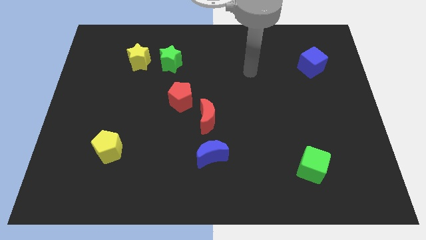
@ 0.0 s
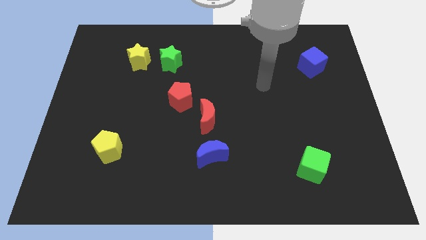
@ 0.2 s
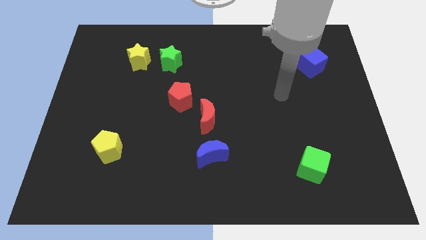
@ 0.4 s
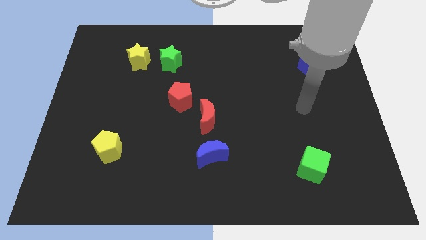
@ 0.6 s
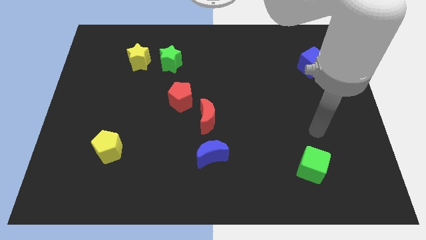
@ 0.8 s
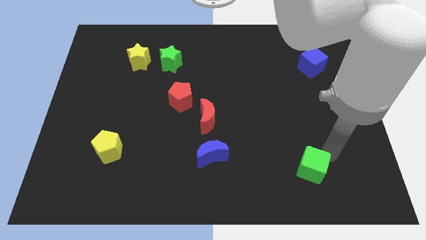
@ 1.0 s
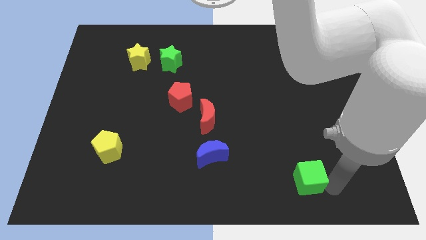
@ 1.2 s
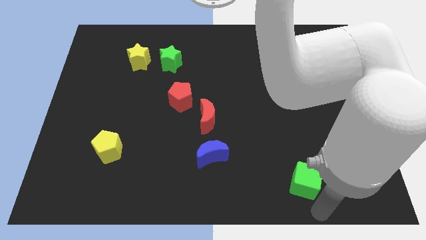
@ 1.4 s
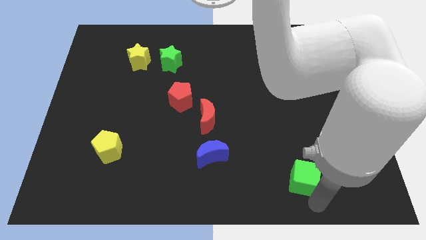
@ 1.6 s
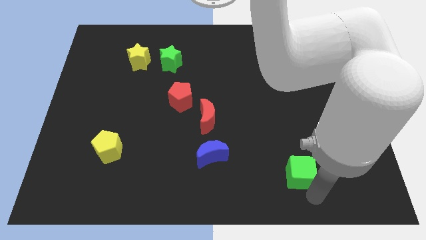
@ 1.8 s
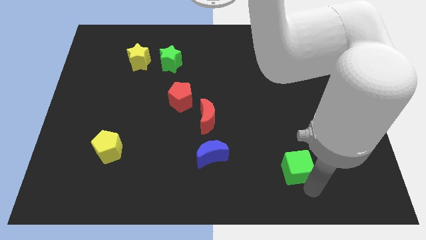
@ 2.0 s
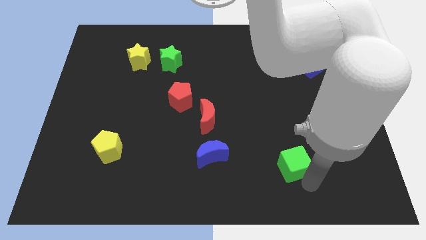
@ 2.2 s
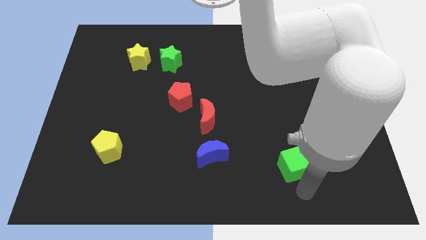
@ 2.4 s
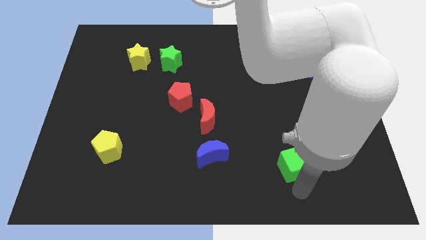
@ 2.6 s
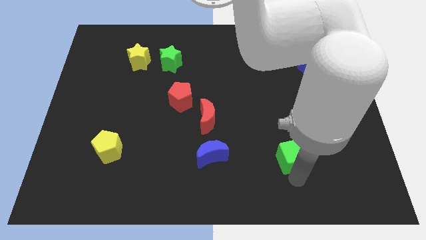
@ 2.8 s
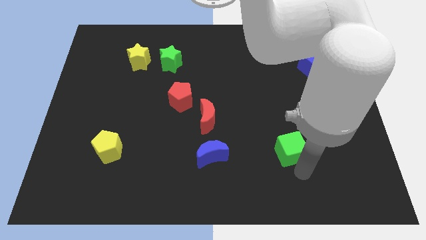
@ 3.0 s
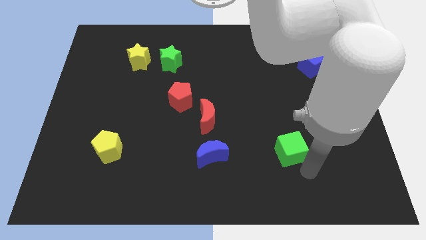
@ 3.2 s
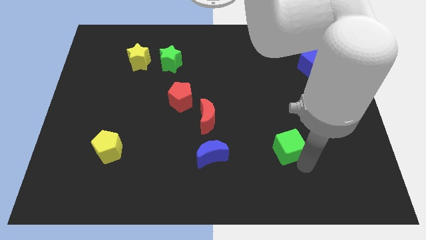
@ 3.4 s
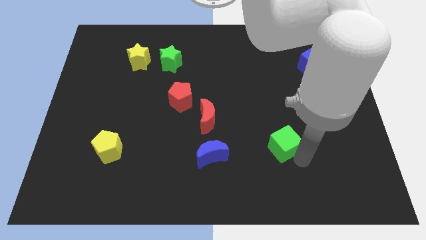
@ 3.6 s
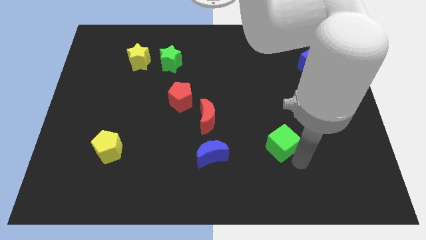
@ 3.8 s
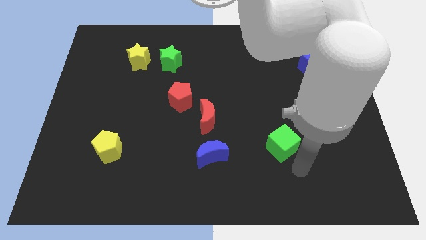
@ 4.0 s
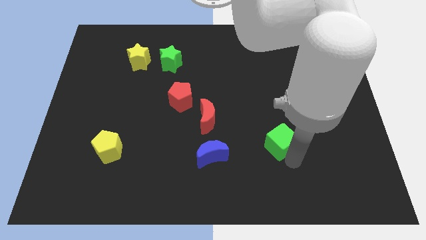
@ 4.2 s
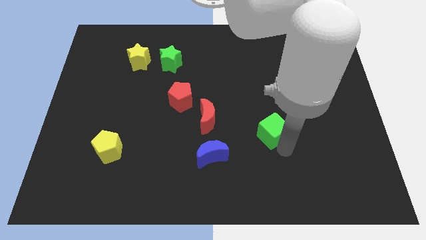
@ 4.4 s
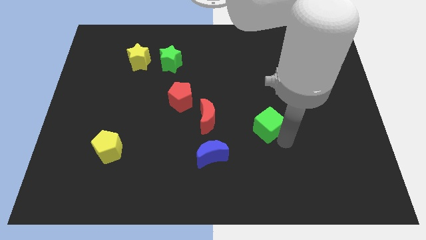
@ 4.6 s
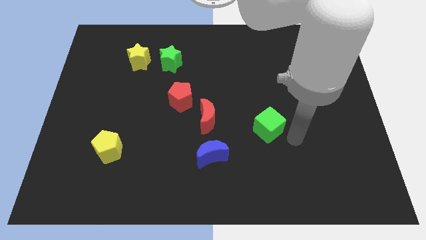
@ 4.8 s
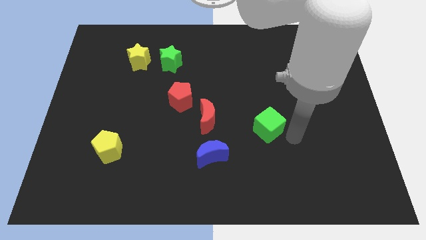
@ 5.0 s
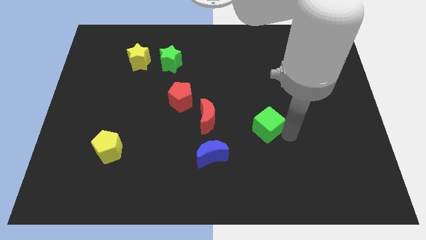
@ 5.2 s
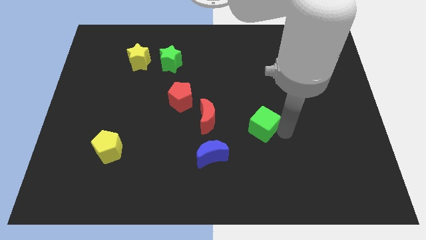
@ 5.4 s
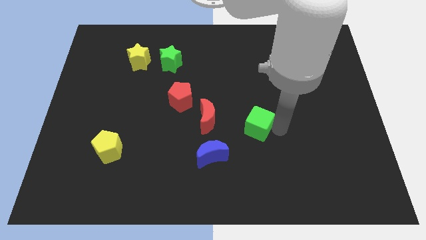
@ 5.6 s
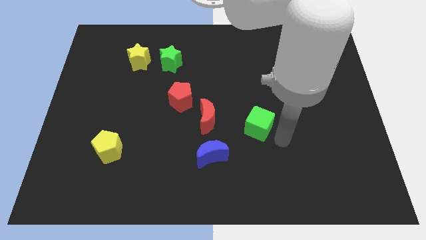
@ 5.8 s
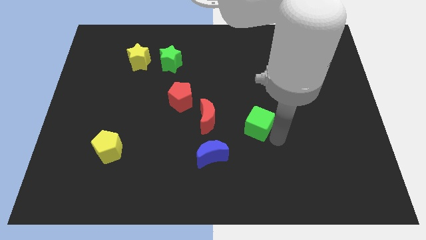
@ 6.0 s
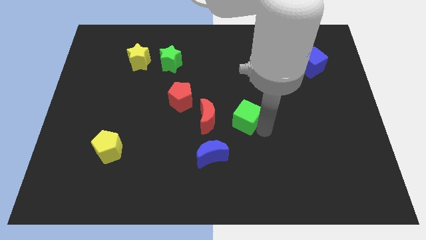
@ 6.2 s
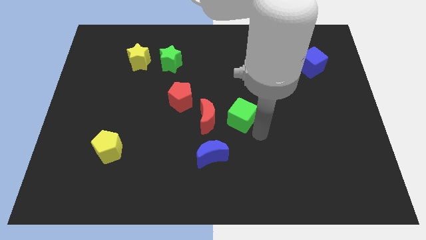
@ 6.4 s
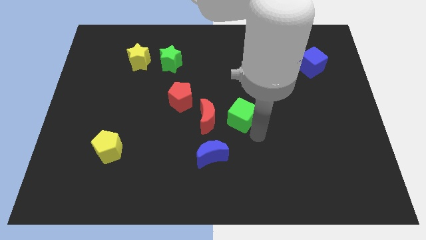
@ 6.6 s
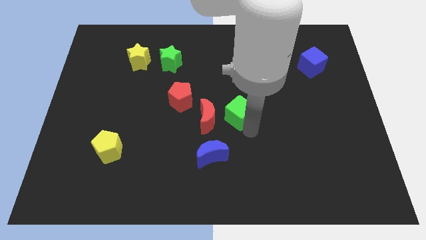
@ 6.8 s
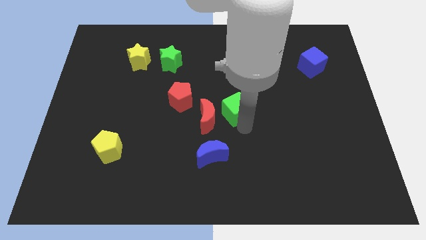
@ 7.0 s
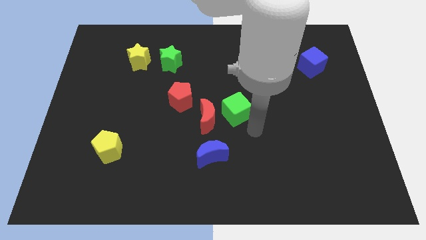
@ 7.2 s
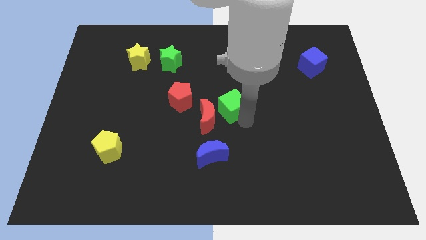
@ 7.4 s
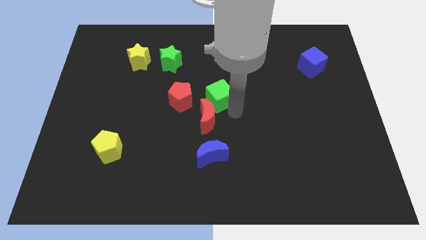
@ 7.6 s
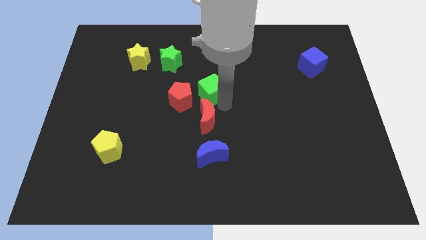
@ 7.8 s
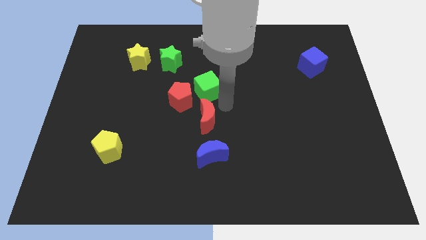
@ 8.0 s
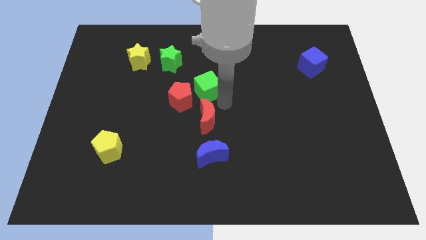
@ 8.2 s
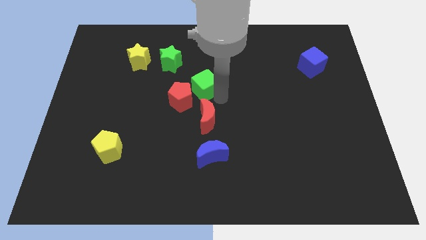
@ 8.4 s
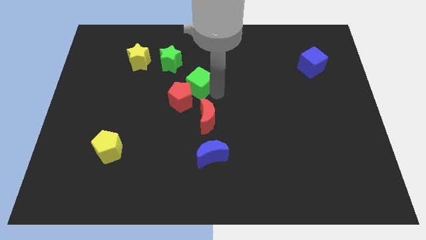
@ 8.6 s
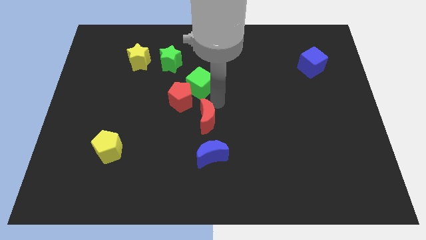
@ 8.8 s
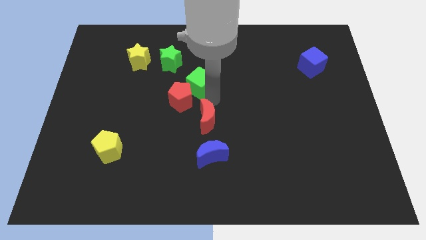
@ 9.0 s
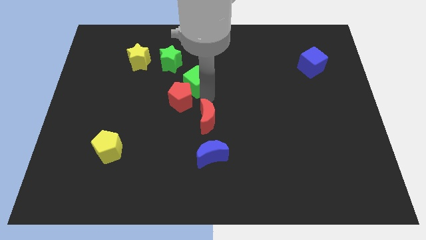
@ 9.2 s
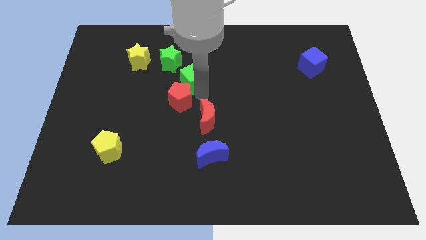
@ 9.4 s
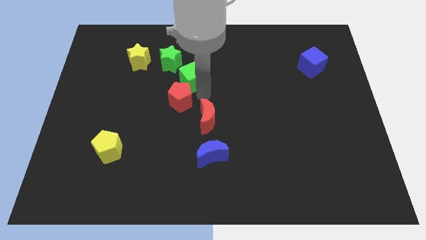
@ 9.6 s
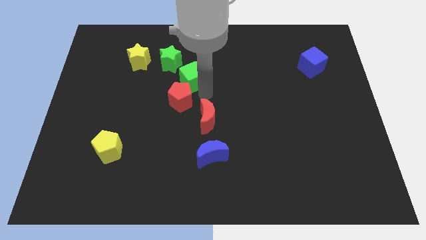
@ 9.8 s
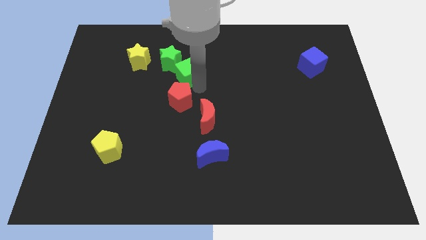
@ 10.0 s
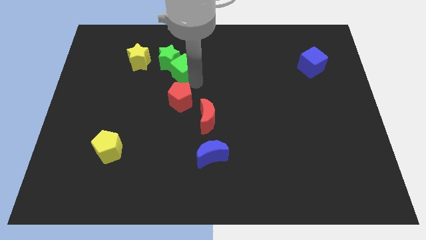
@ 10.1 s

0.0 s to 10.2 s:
push the green cube to the green star

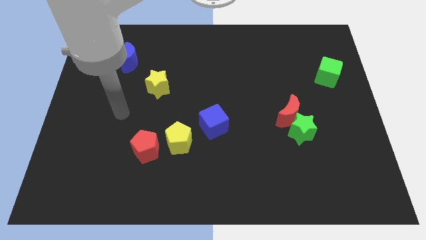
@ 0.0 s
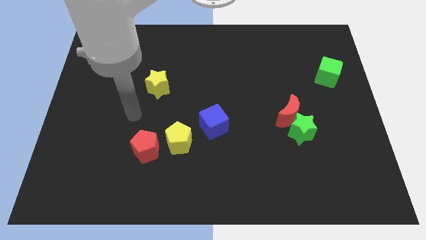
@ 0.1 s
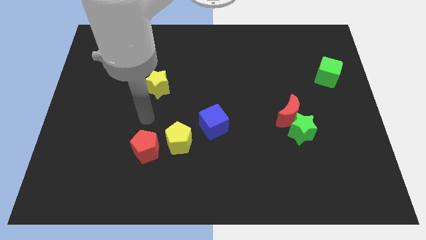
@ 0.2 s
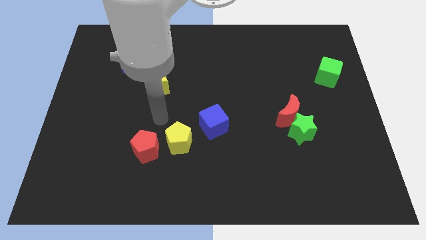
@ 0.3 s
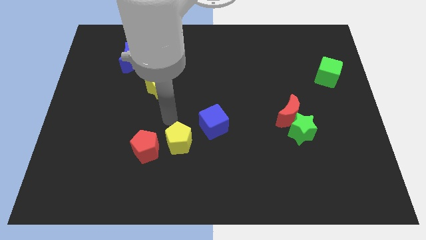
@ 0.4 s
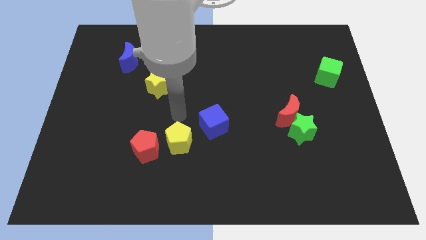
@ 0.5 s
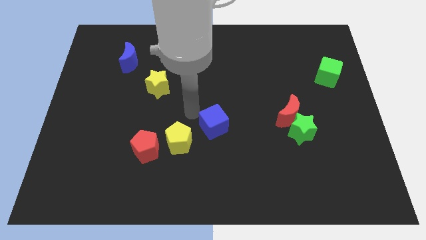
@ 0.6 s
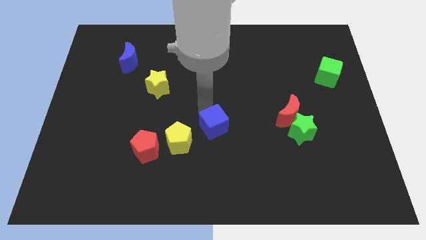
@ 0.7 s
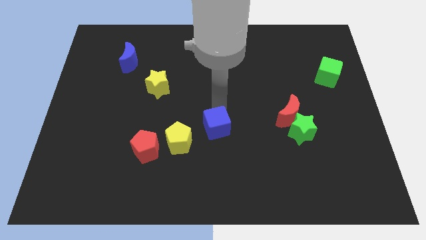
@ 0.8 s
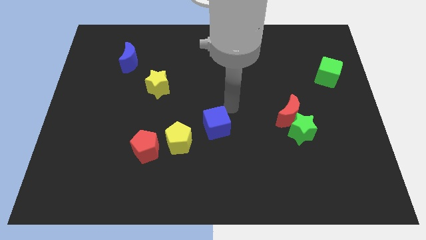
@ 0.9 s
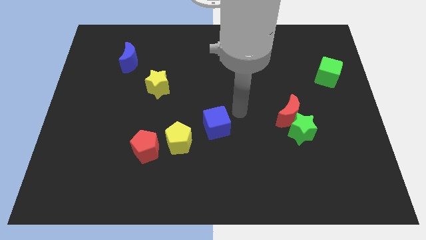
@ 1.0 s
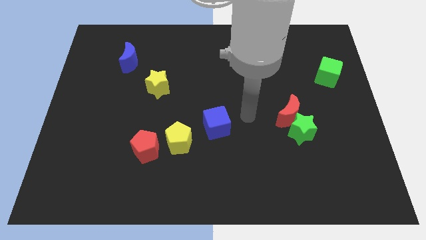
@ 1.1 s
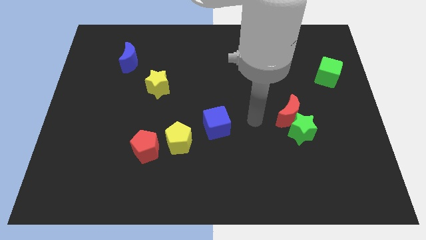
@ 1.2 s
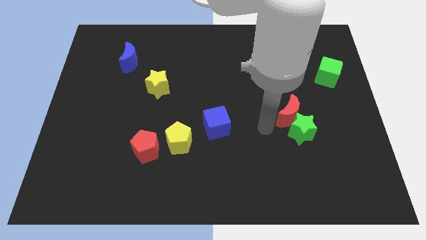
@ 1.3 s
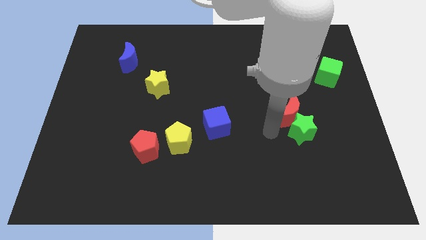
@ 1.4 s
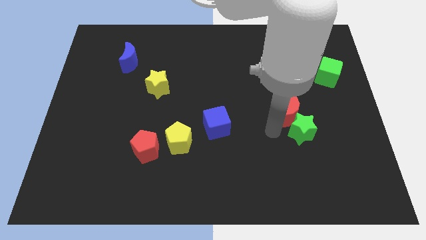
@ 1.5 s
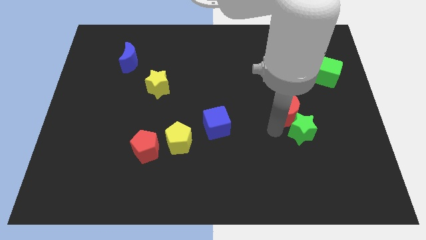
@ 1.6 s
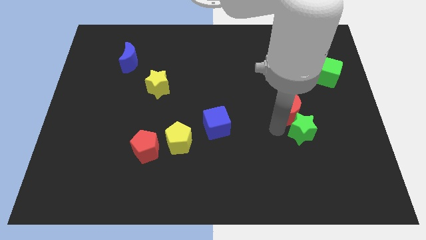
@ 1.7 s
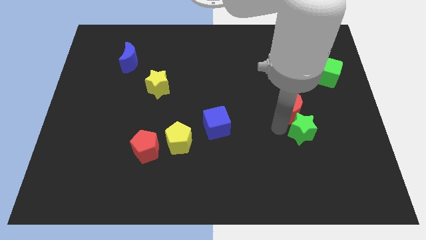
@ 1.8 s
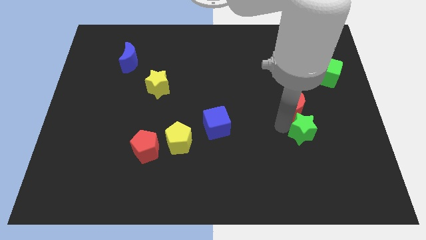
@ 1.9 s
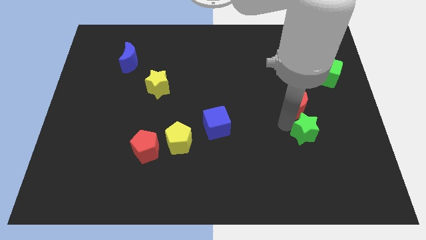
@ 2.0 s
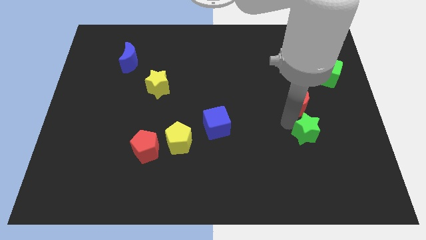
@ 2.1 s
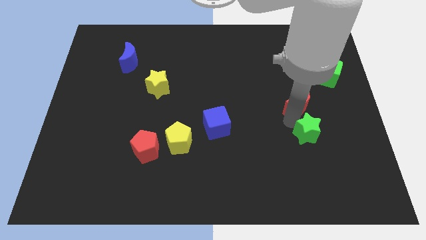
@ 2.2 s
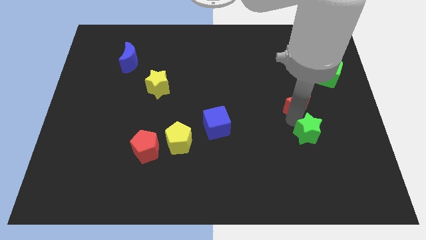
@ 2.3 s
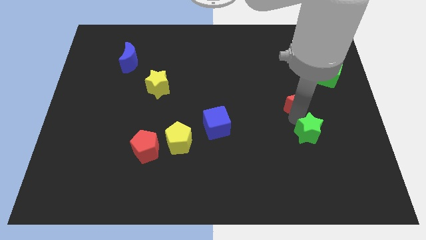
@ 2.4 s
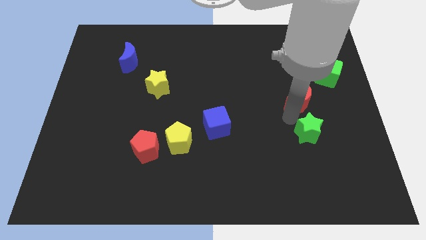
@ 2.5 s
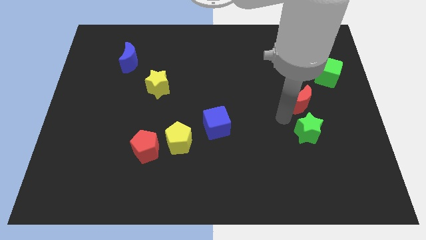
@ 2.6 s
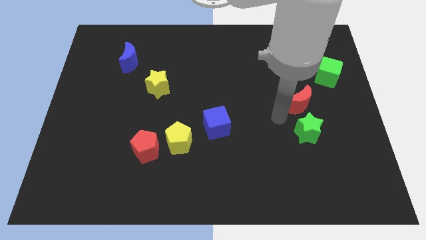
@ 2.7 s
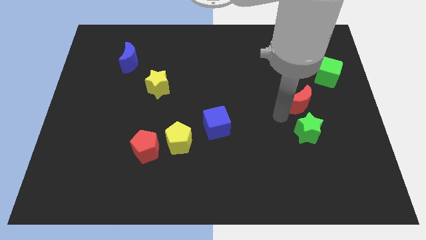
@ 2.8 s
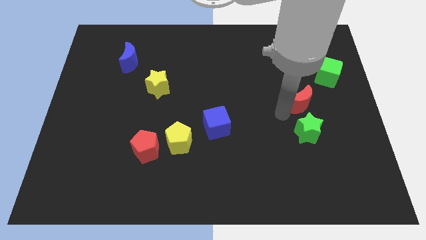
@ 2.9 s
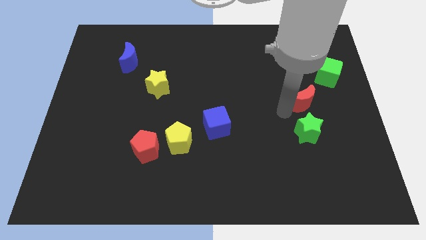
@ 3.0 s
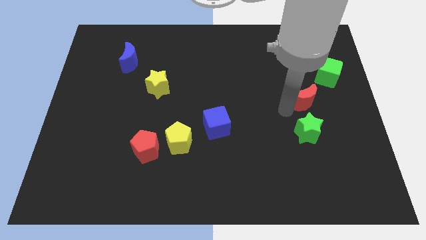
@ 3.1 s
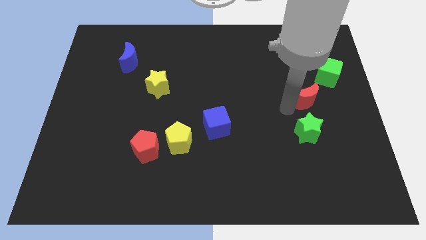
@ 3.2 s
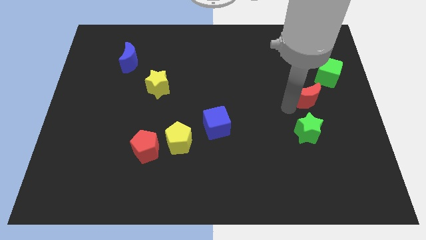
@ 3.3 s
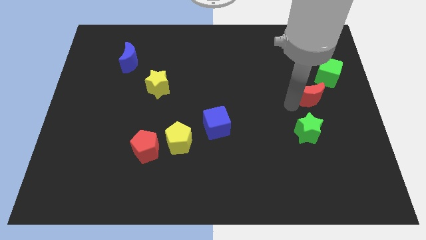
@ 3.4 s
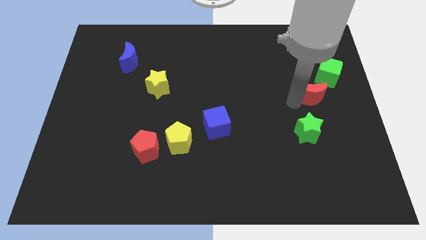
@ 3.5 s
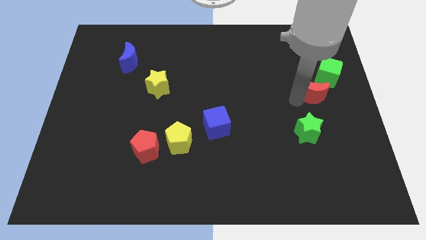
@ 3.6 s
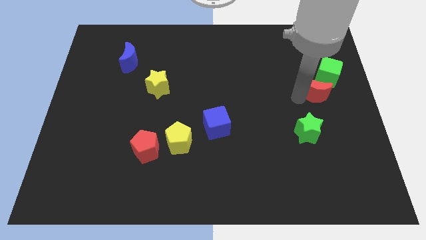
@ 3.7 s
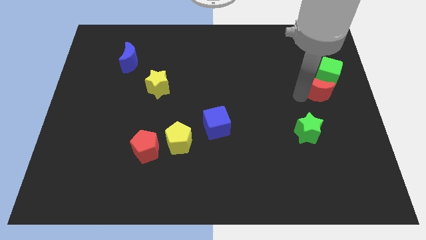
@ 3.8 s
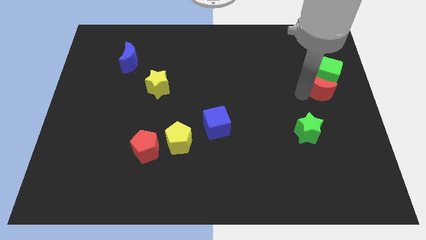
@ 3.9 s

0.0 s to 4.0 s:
slide the red moon towards the green cube
